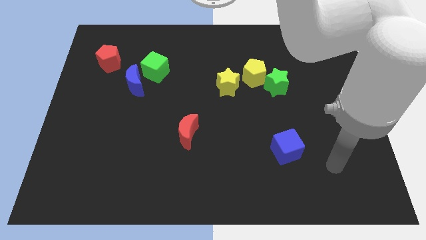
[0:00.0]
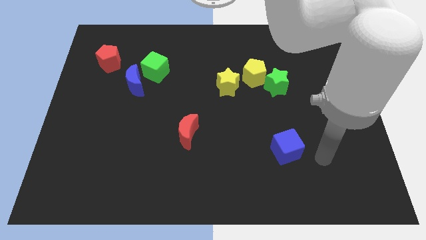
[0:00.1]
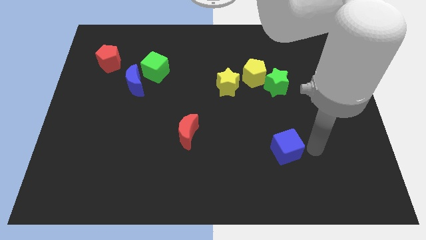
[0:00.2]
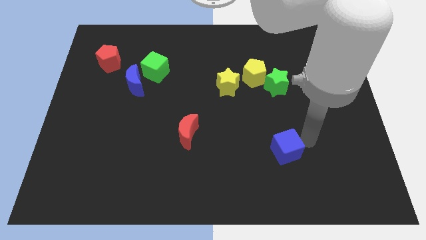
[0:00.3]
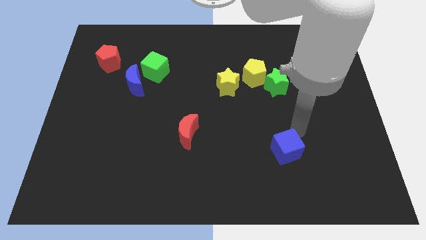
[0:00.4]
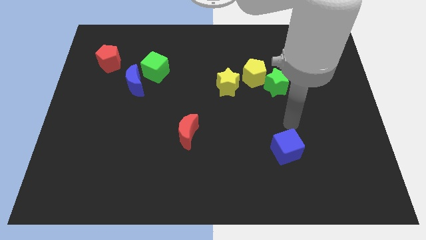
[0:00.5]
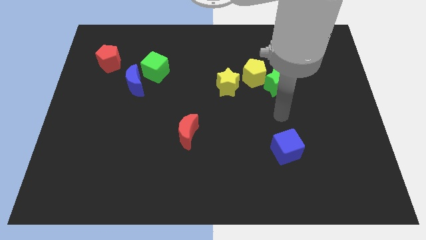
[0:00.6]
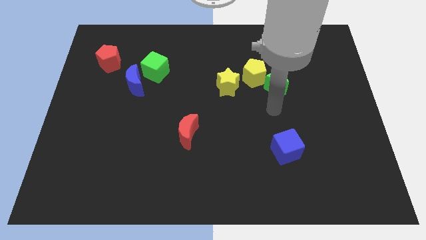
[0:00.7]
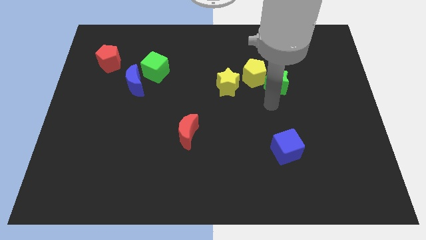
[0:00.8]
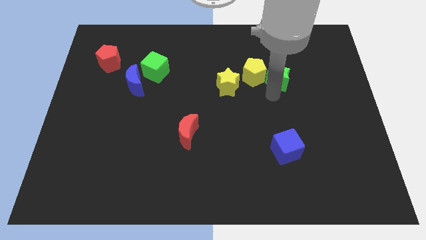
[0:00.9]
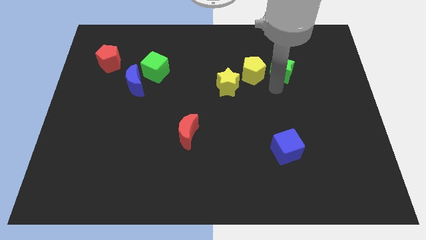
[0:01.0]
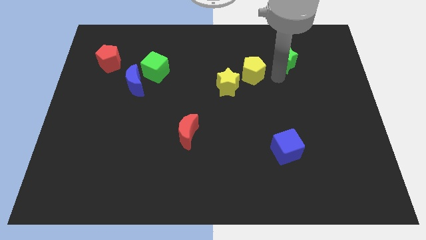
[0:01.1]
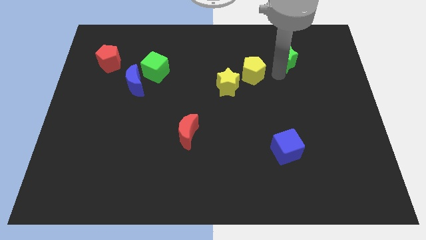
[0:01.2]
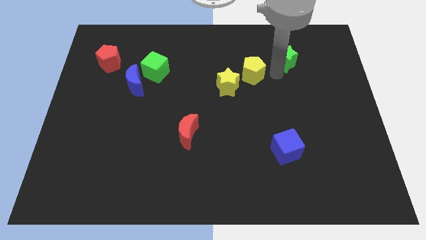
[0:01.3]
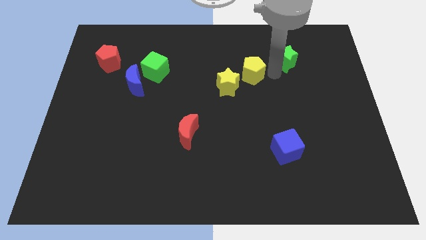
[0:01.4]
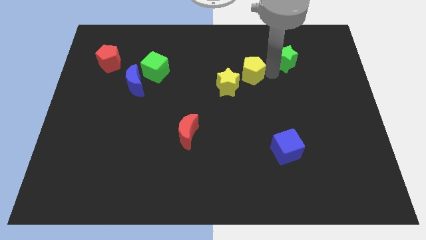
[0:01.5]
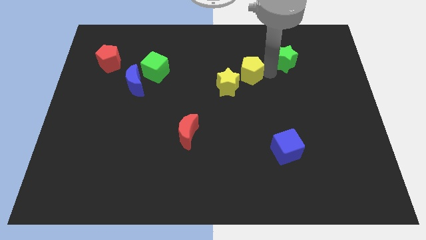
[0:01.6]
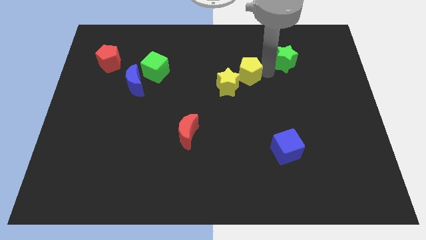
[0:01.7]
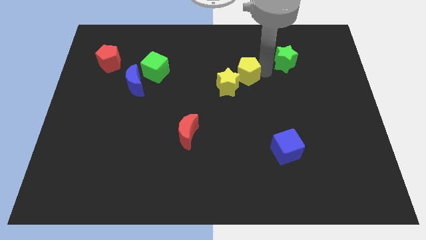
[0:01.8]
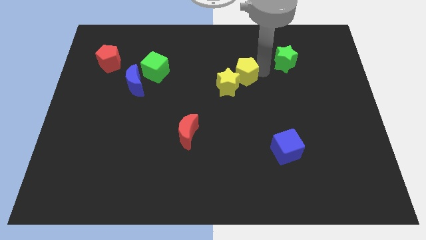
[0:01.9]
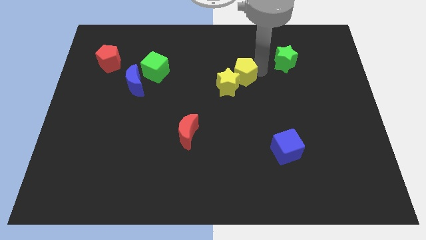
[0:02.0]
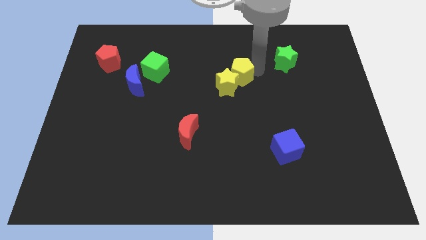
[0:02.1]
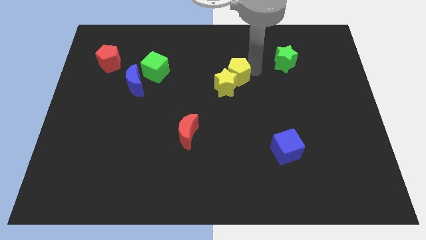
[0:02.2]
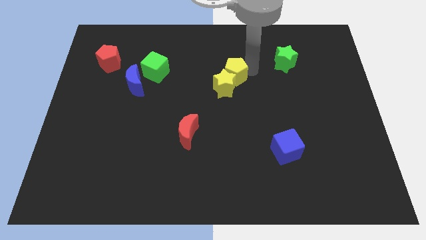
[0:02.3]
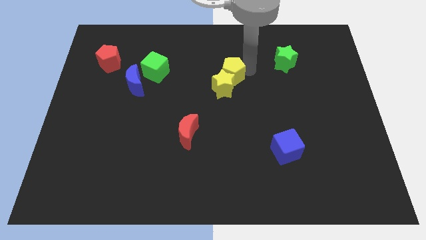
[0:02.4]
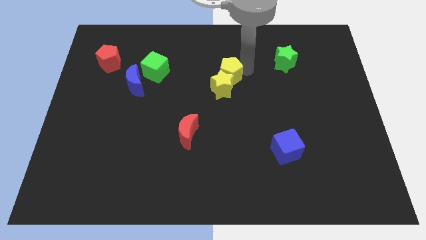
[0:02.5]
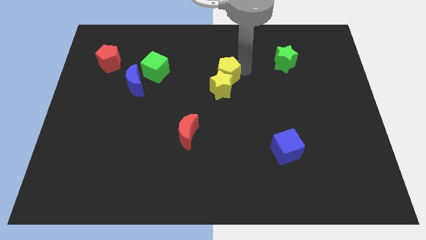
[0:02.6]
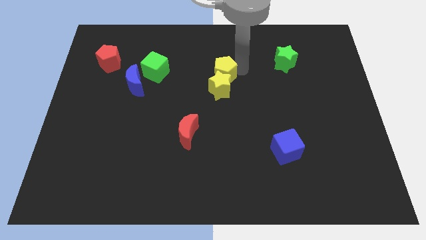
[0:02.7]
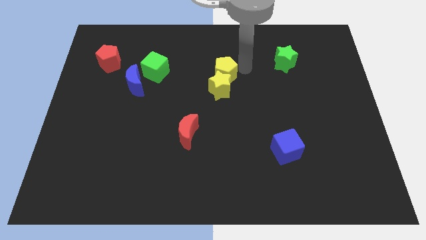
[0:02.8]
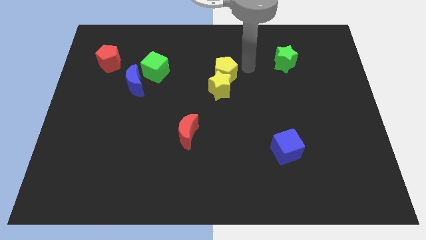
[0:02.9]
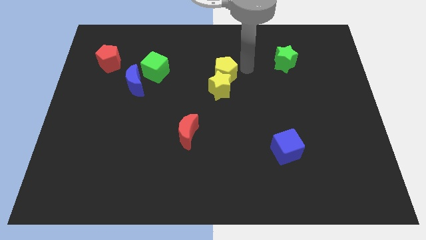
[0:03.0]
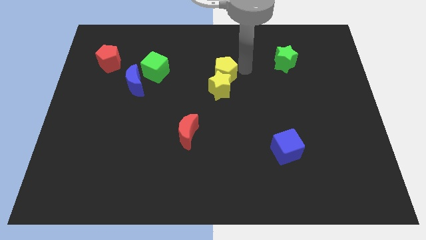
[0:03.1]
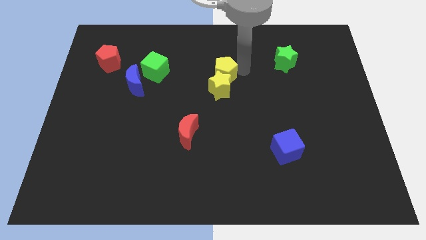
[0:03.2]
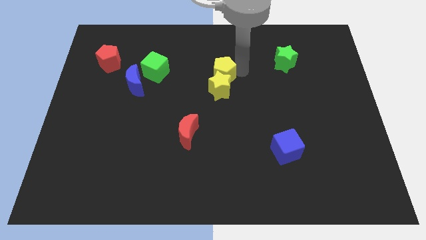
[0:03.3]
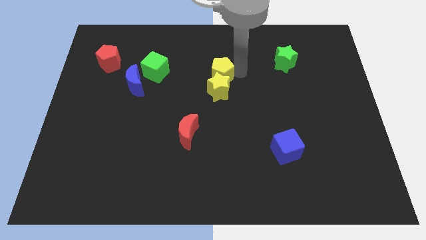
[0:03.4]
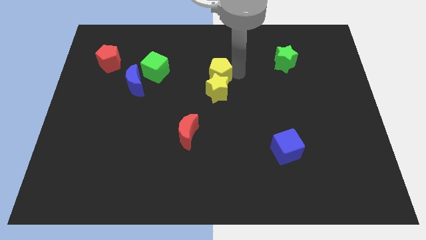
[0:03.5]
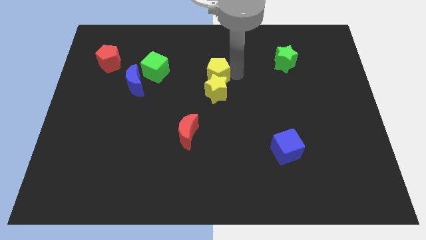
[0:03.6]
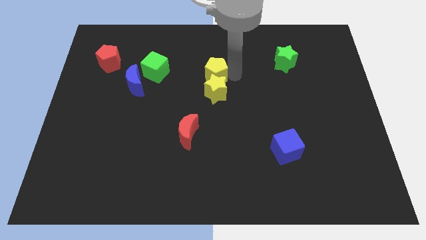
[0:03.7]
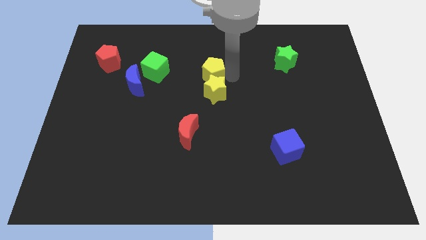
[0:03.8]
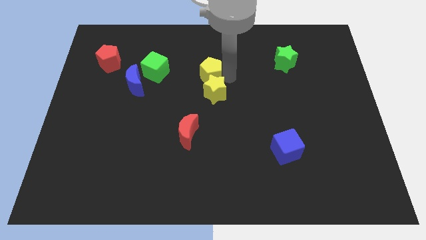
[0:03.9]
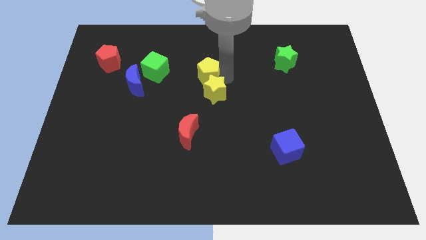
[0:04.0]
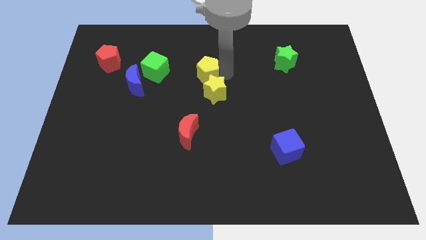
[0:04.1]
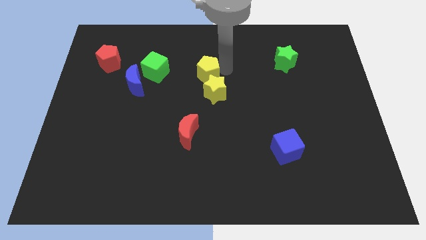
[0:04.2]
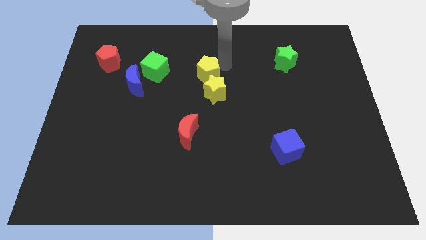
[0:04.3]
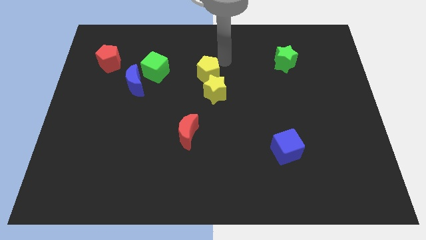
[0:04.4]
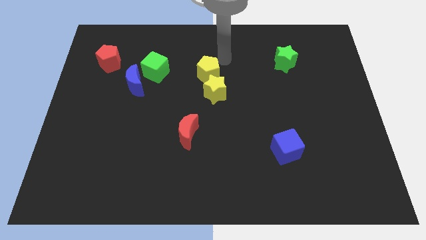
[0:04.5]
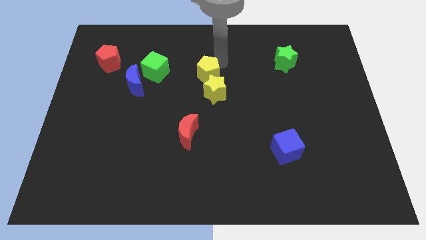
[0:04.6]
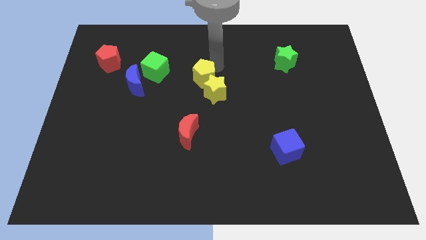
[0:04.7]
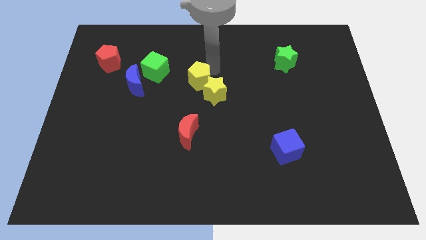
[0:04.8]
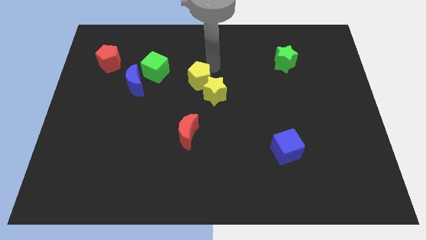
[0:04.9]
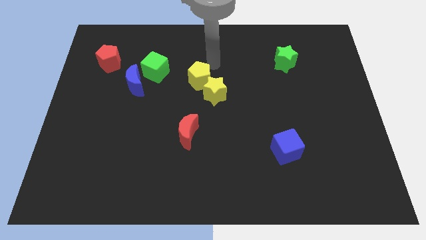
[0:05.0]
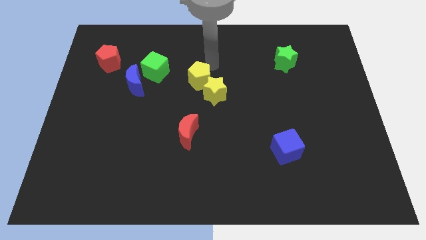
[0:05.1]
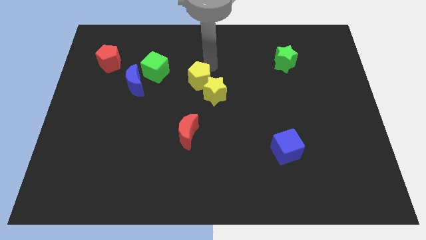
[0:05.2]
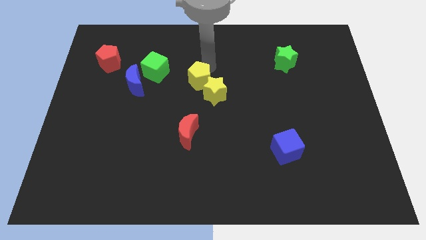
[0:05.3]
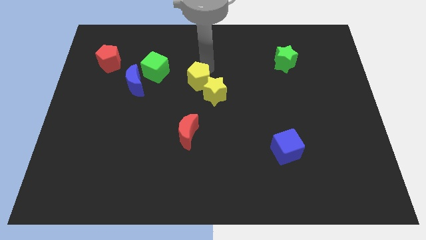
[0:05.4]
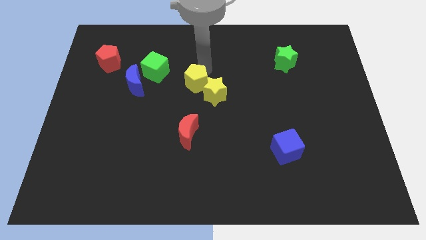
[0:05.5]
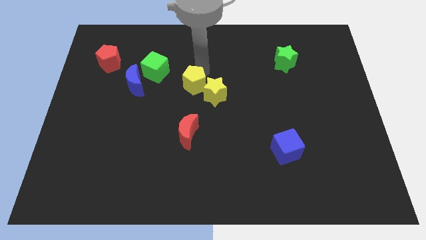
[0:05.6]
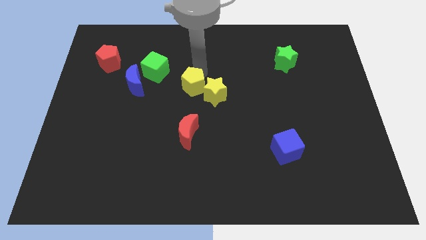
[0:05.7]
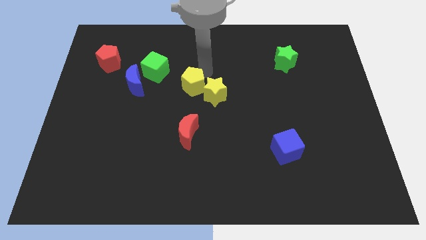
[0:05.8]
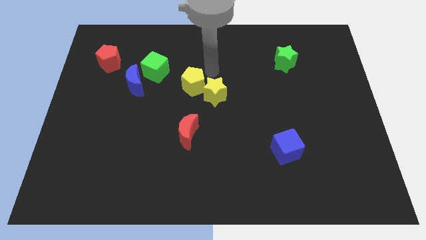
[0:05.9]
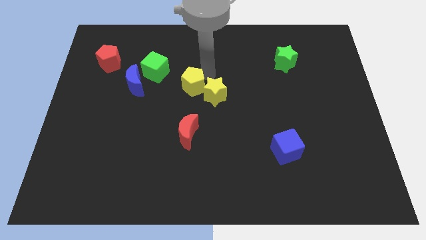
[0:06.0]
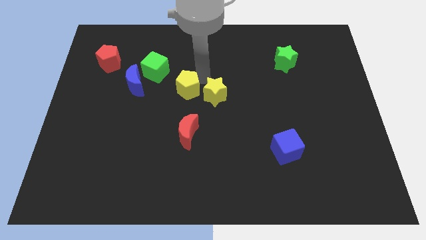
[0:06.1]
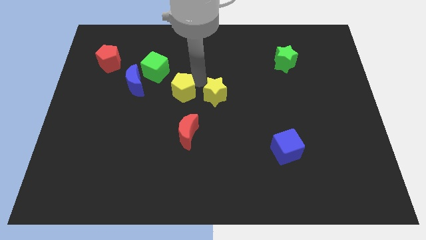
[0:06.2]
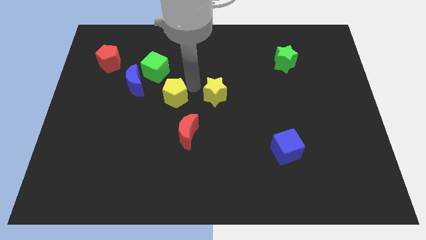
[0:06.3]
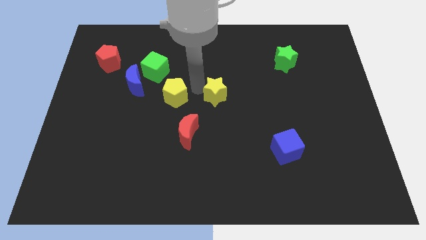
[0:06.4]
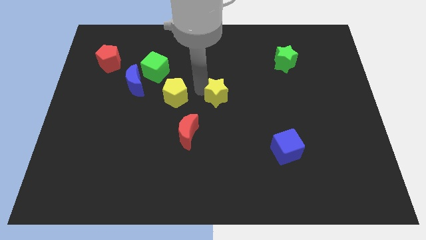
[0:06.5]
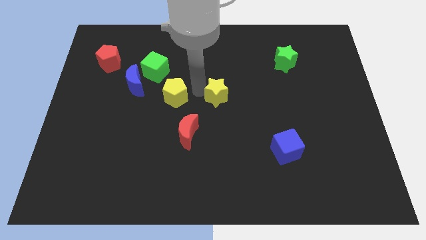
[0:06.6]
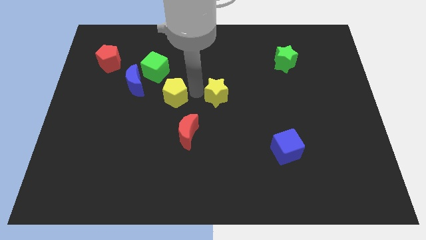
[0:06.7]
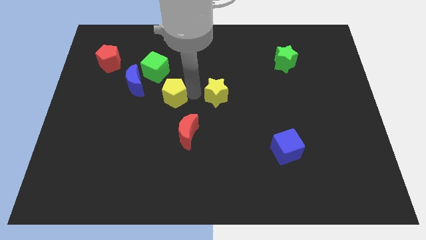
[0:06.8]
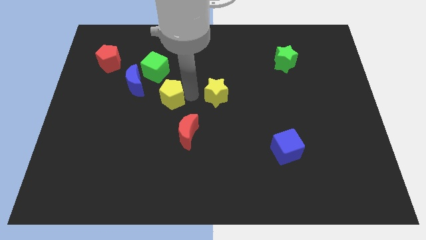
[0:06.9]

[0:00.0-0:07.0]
slide the yellow pentagon below the green cube

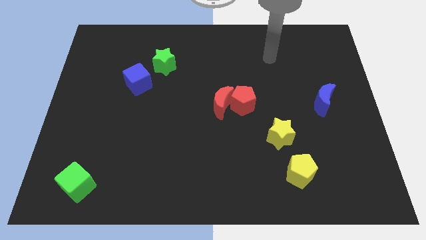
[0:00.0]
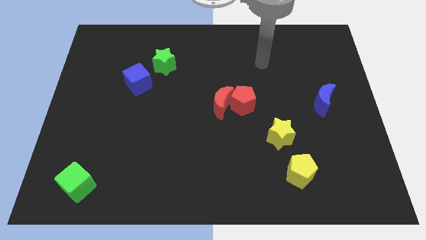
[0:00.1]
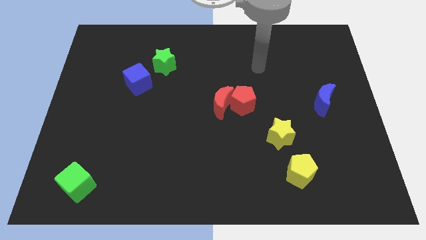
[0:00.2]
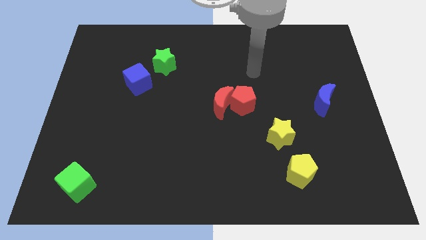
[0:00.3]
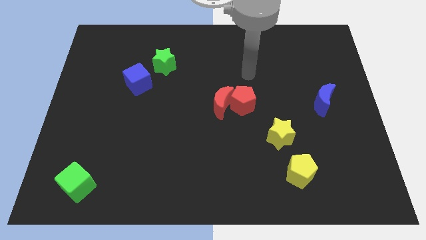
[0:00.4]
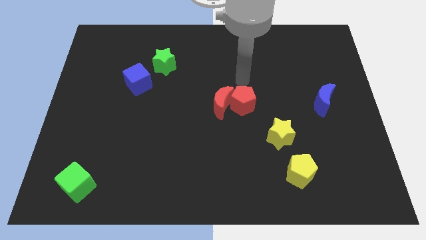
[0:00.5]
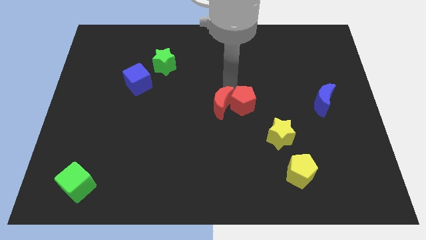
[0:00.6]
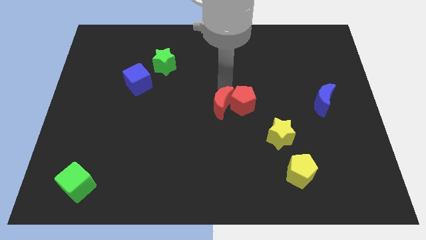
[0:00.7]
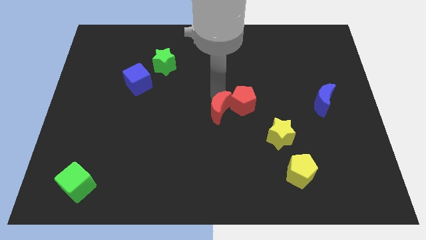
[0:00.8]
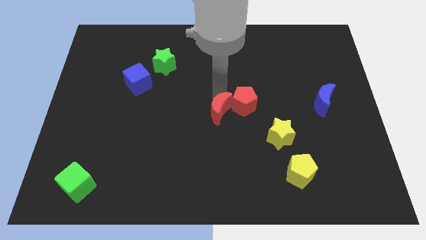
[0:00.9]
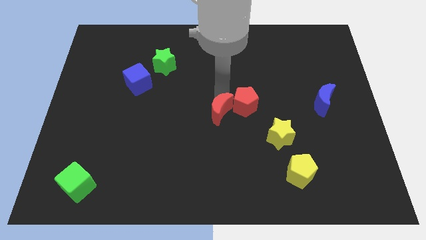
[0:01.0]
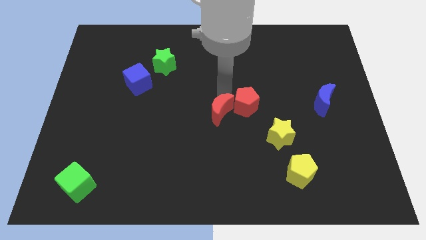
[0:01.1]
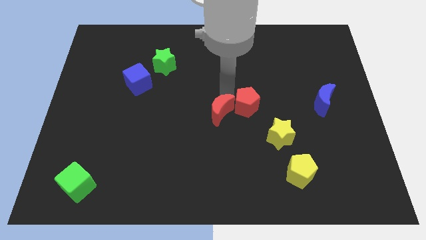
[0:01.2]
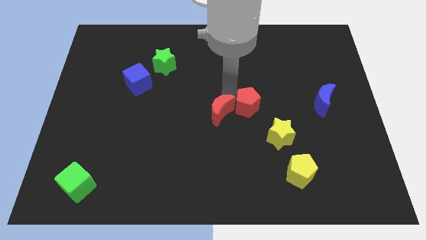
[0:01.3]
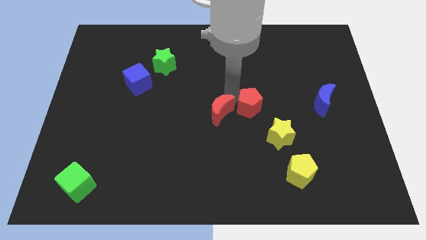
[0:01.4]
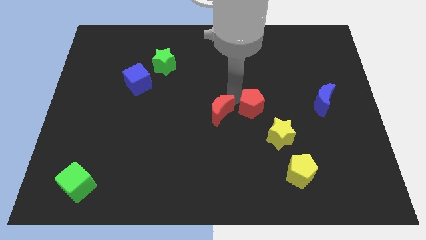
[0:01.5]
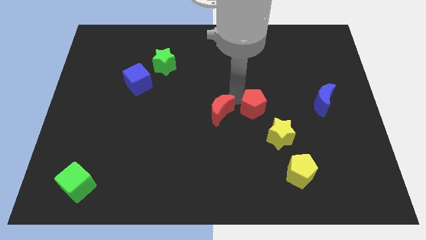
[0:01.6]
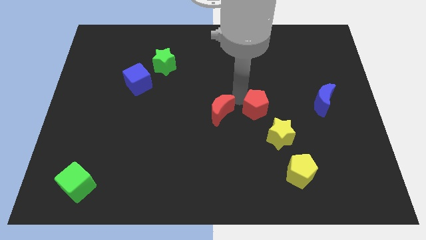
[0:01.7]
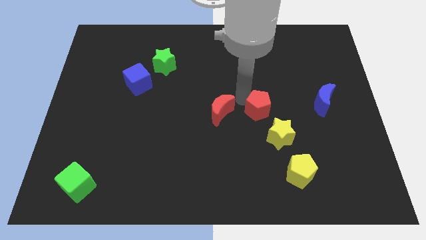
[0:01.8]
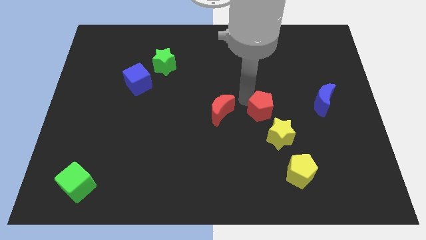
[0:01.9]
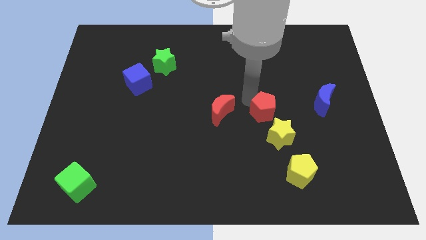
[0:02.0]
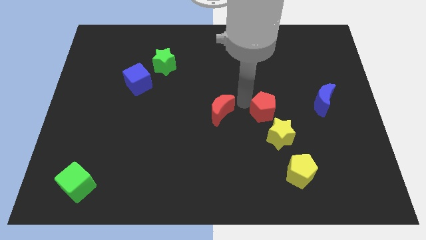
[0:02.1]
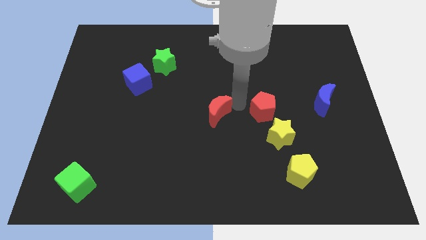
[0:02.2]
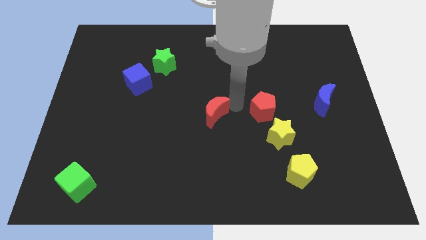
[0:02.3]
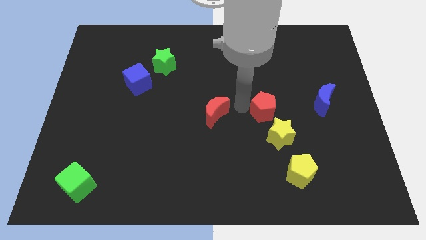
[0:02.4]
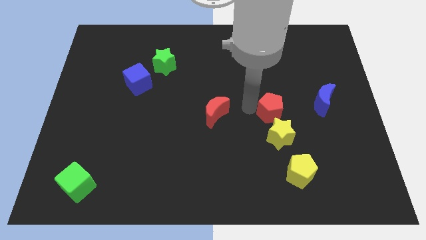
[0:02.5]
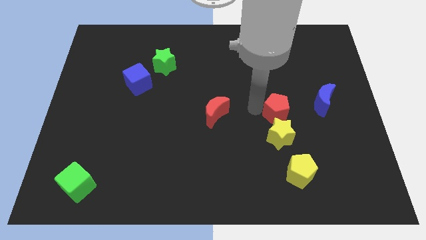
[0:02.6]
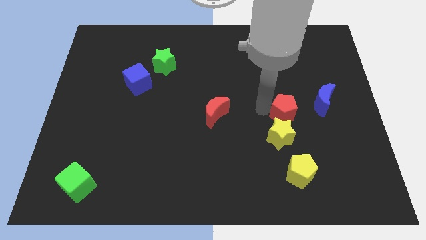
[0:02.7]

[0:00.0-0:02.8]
slide the red pentagon diagonally down and to the left of the blue moon
